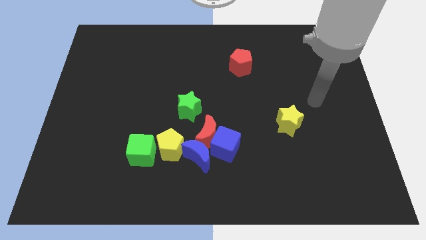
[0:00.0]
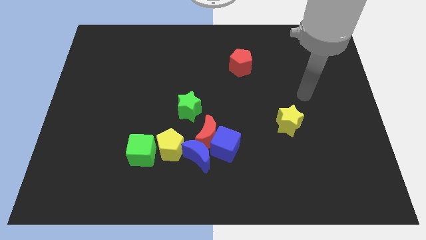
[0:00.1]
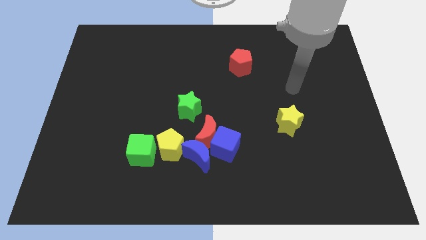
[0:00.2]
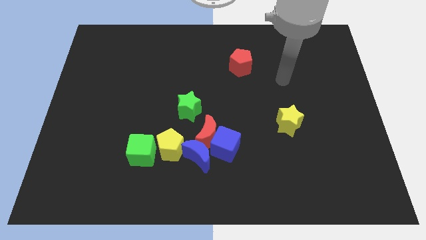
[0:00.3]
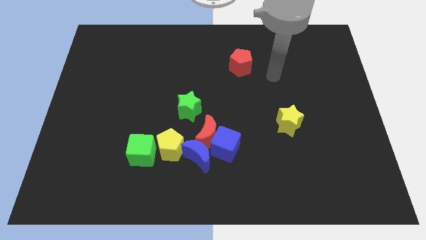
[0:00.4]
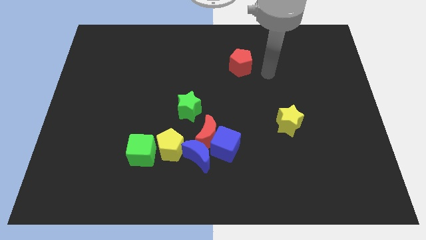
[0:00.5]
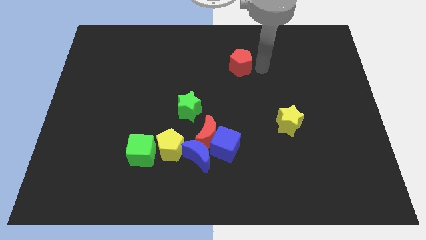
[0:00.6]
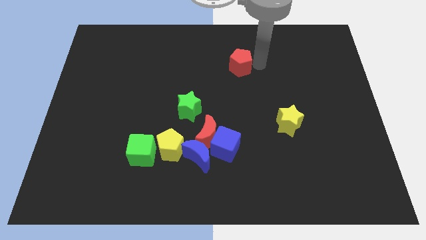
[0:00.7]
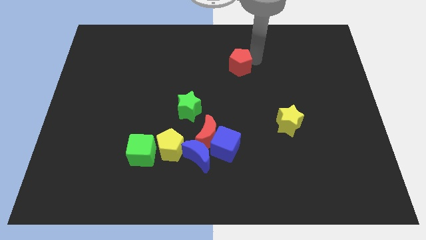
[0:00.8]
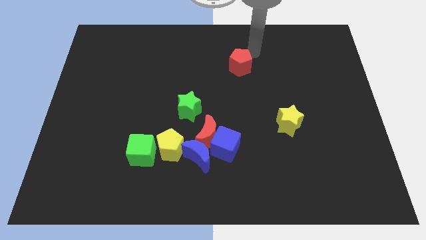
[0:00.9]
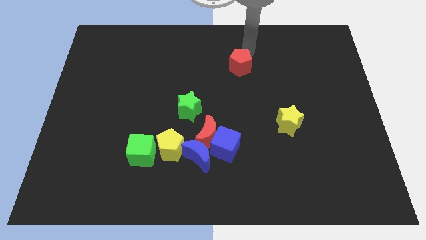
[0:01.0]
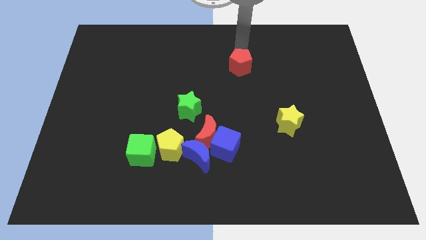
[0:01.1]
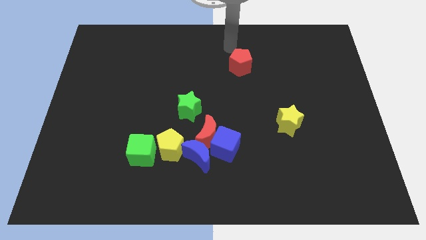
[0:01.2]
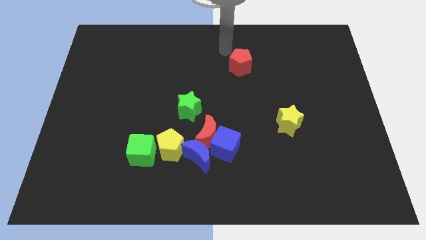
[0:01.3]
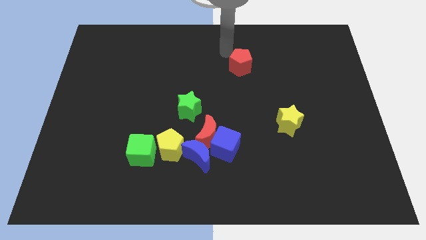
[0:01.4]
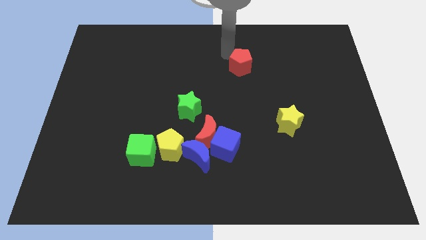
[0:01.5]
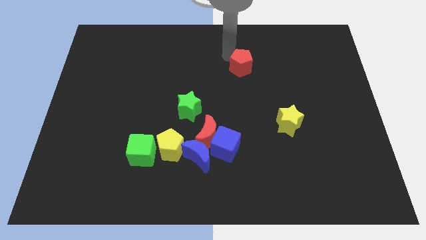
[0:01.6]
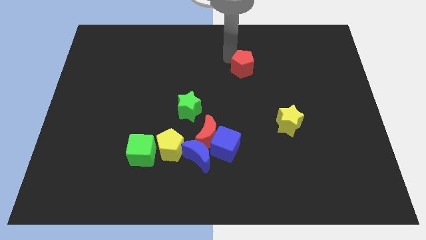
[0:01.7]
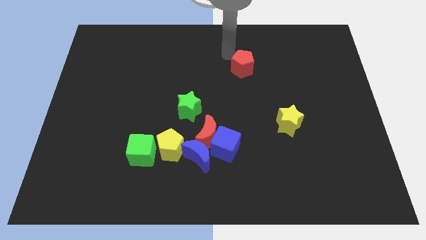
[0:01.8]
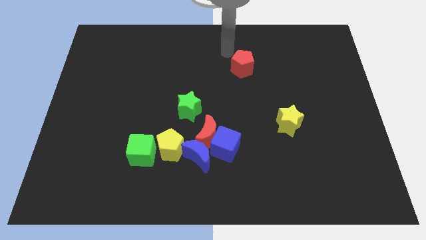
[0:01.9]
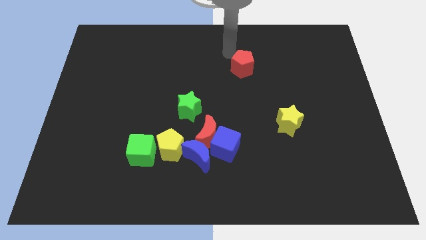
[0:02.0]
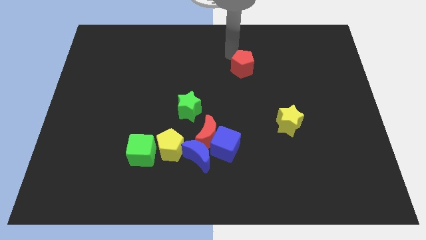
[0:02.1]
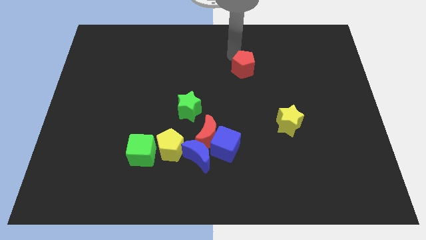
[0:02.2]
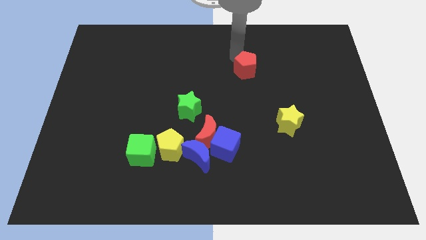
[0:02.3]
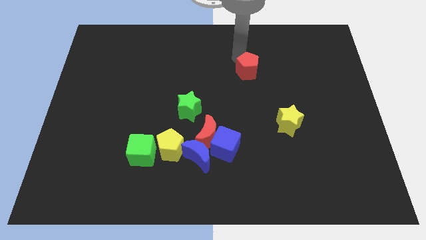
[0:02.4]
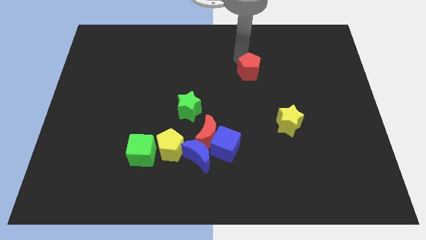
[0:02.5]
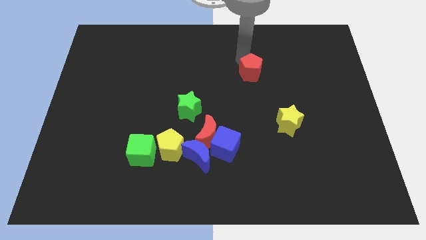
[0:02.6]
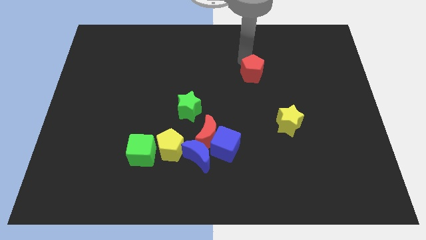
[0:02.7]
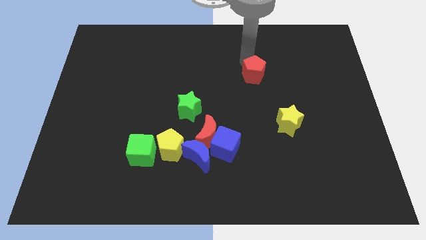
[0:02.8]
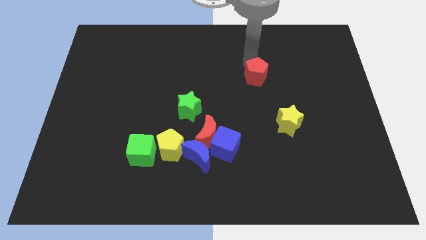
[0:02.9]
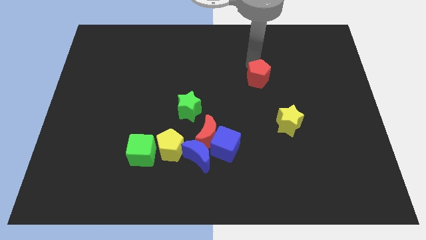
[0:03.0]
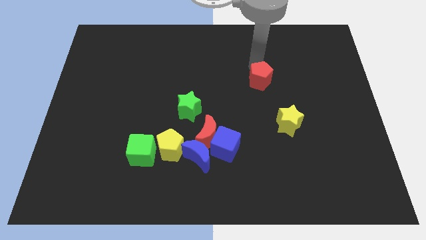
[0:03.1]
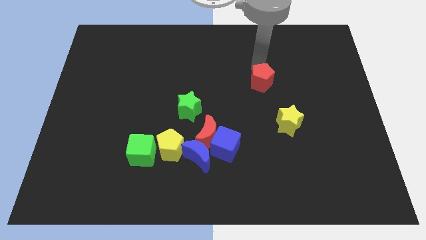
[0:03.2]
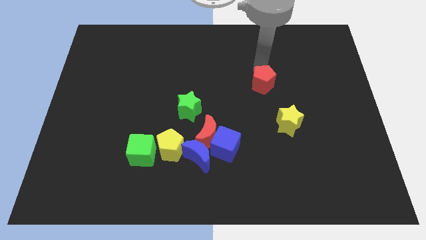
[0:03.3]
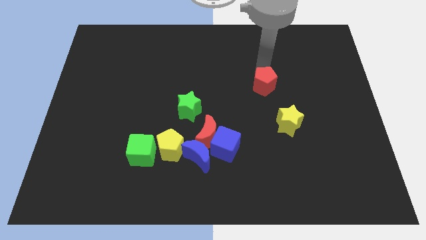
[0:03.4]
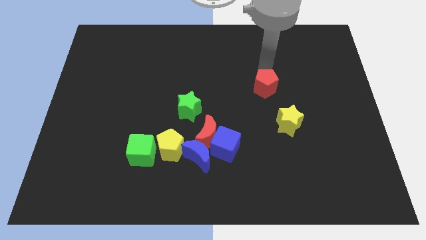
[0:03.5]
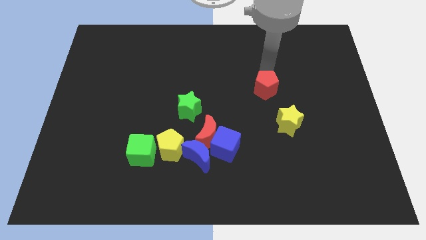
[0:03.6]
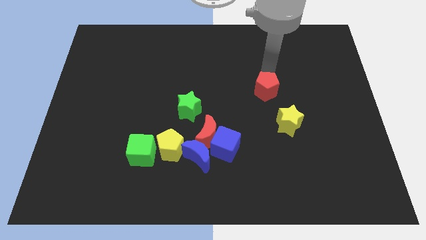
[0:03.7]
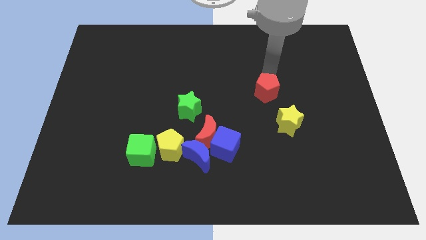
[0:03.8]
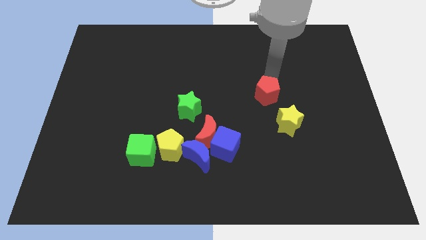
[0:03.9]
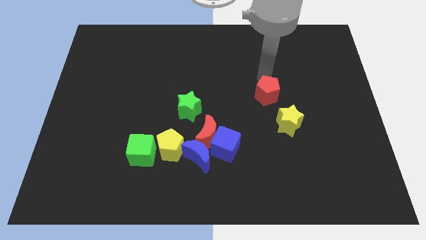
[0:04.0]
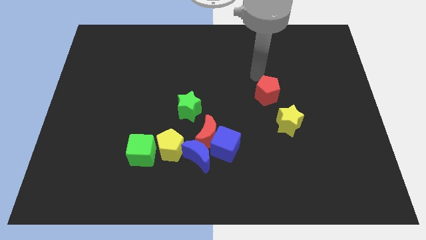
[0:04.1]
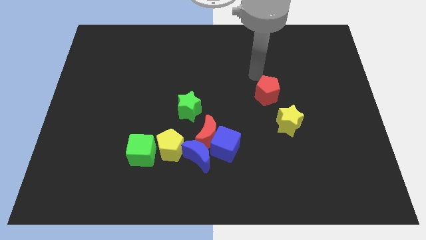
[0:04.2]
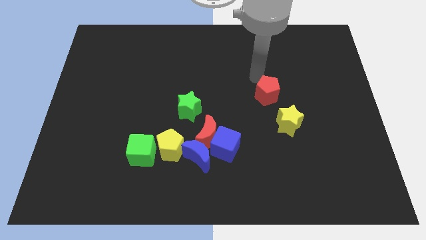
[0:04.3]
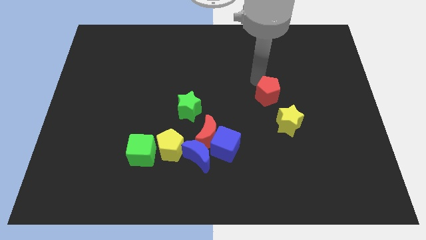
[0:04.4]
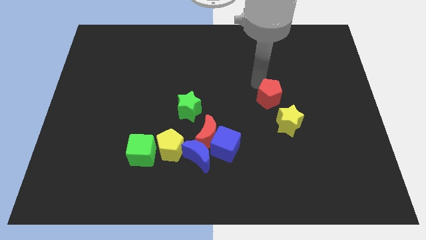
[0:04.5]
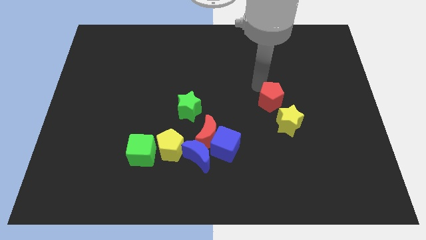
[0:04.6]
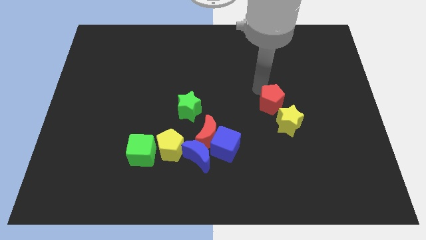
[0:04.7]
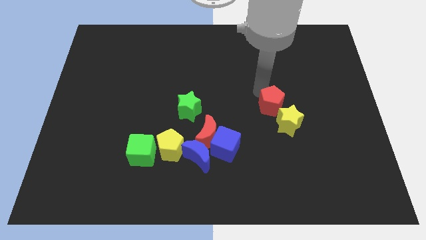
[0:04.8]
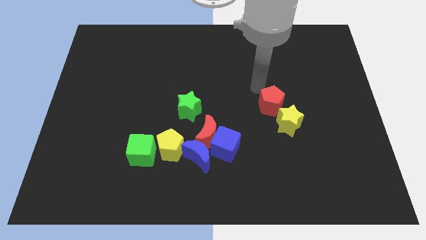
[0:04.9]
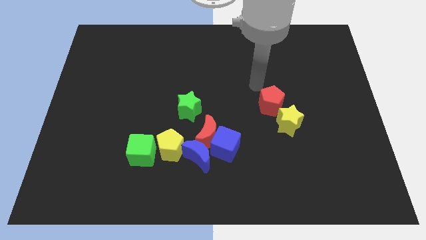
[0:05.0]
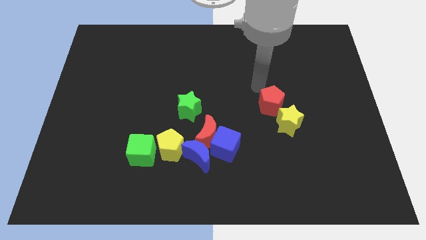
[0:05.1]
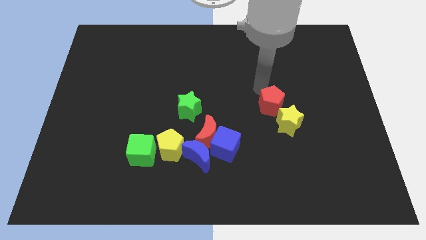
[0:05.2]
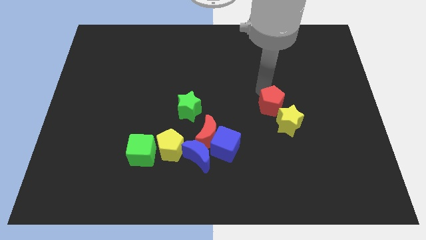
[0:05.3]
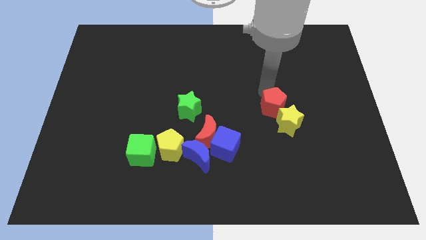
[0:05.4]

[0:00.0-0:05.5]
slide the red pentagon towards the yellow star

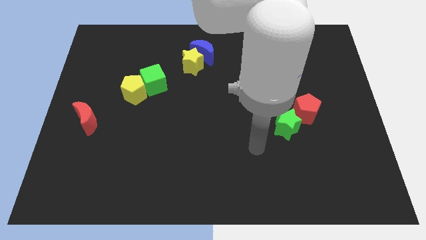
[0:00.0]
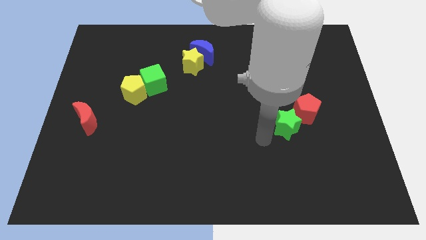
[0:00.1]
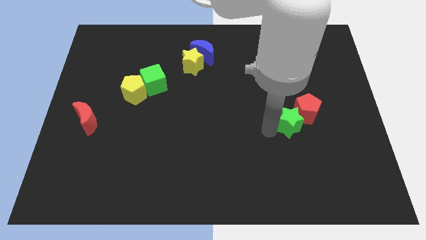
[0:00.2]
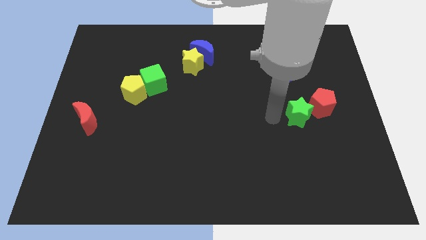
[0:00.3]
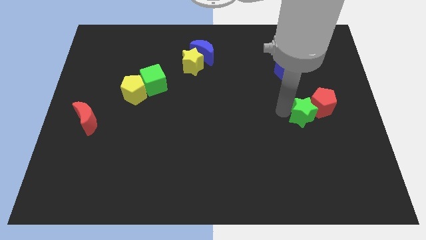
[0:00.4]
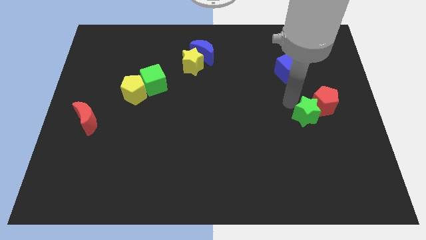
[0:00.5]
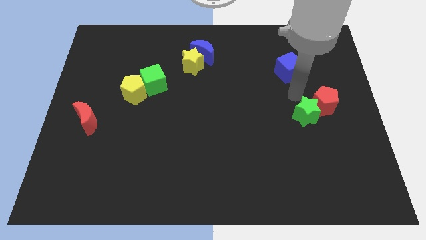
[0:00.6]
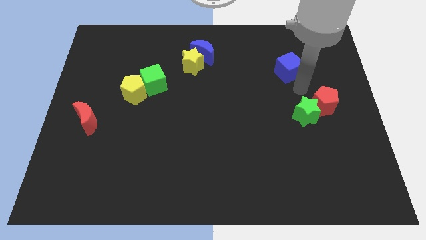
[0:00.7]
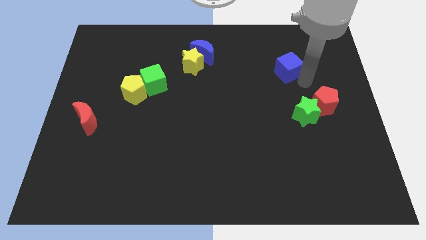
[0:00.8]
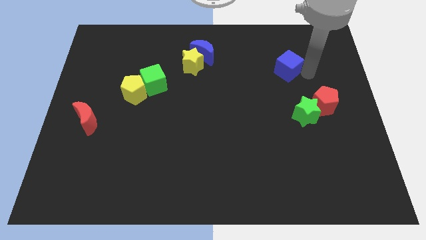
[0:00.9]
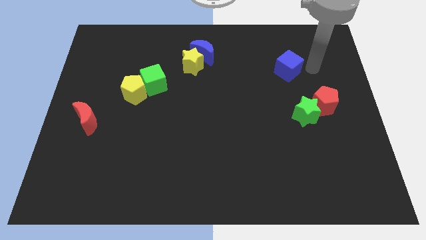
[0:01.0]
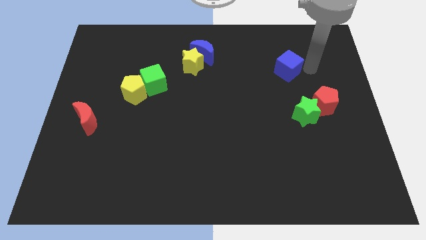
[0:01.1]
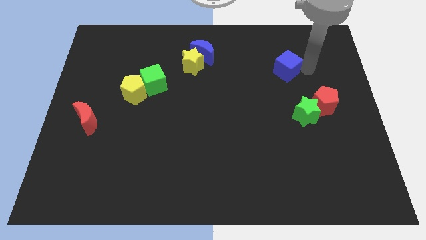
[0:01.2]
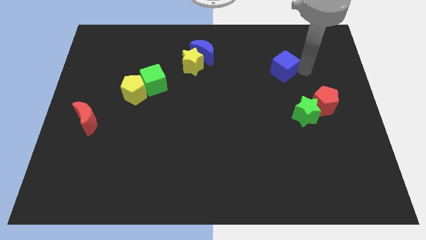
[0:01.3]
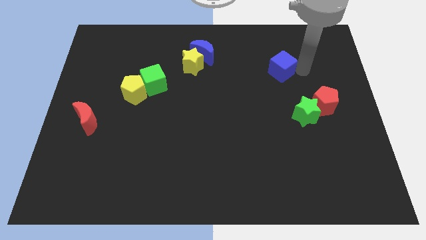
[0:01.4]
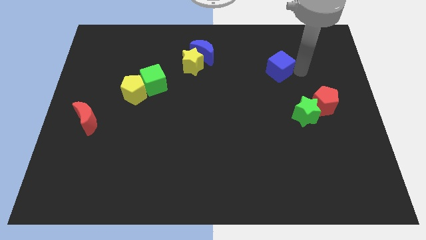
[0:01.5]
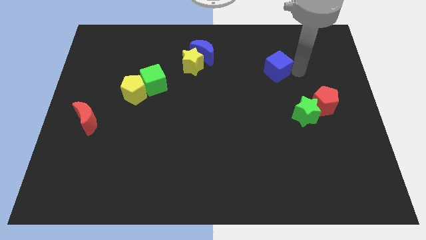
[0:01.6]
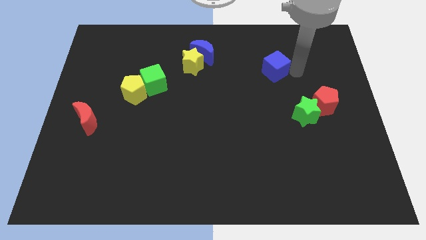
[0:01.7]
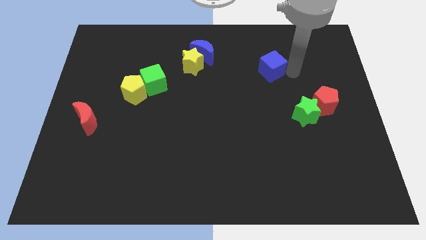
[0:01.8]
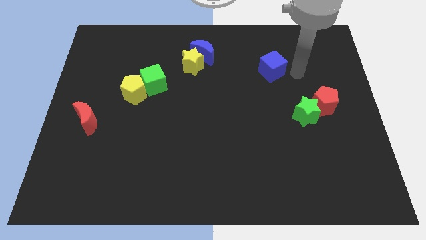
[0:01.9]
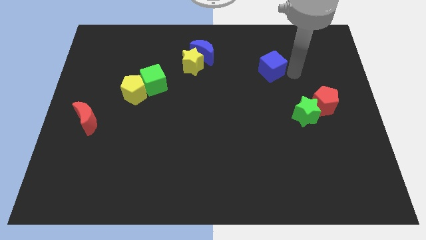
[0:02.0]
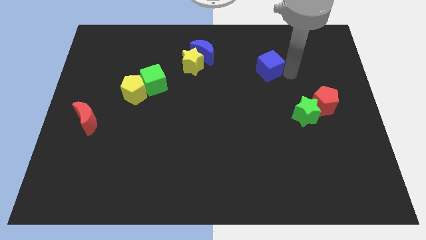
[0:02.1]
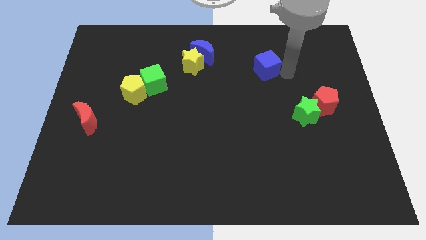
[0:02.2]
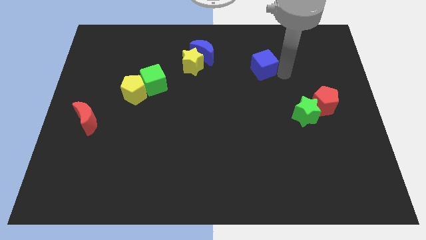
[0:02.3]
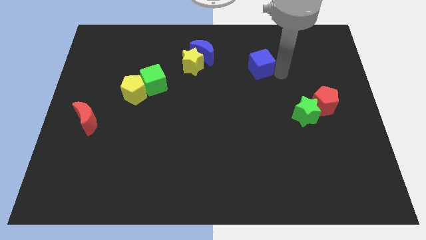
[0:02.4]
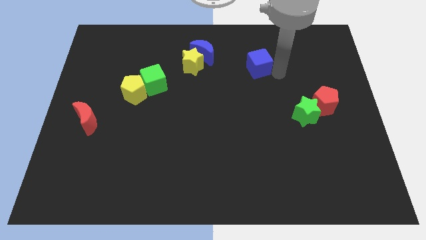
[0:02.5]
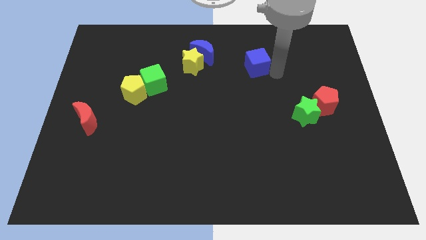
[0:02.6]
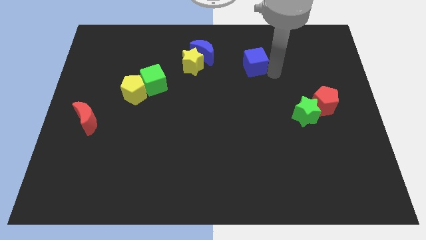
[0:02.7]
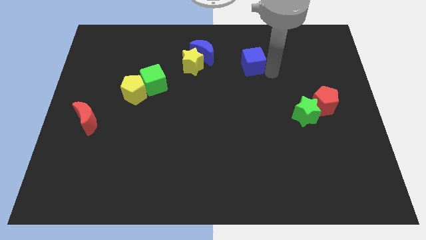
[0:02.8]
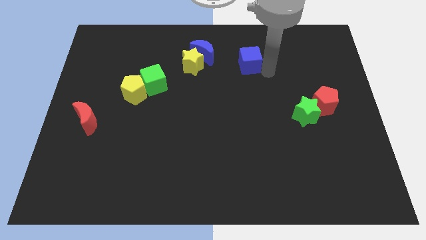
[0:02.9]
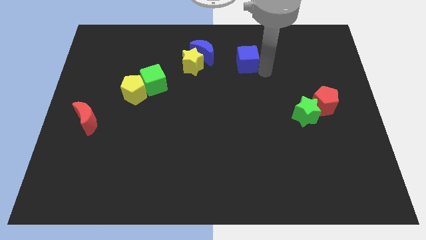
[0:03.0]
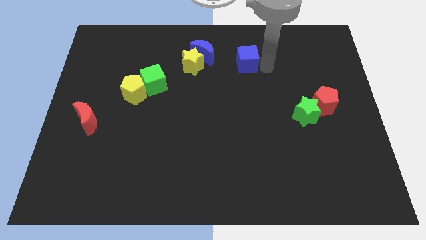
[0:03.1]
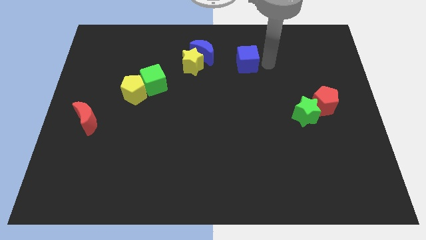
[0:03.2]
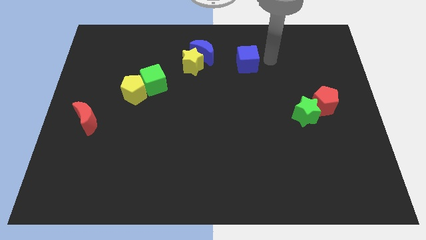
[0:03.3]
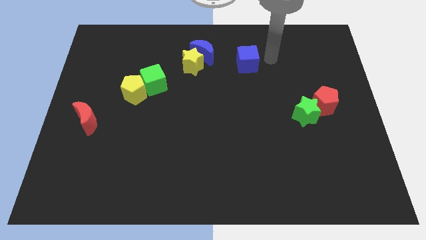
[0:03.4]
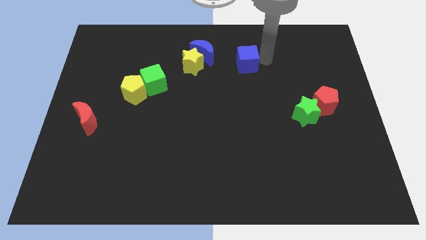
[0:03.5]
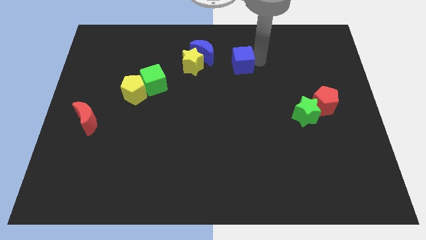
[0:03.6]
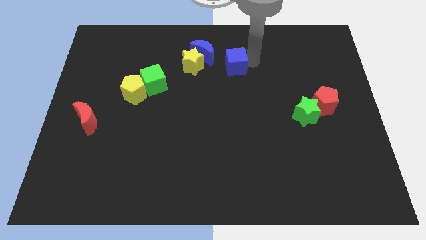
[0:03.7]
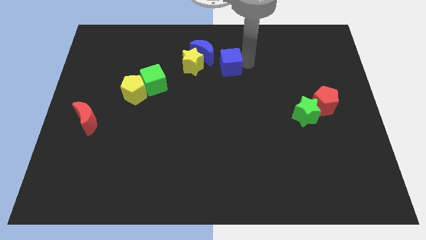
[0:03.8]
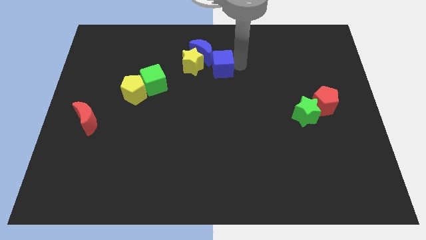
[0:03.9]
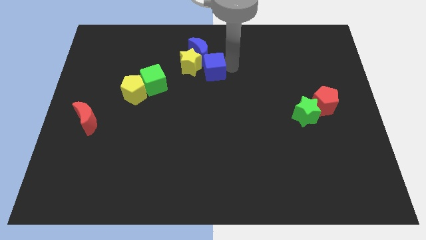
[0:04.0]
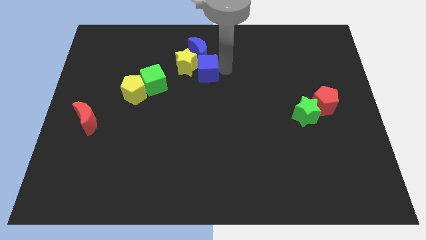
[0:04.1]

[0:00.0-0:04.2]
push the blue cube to the yellow star
